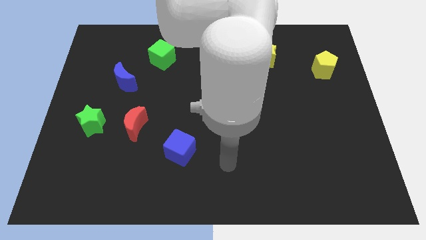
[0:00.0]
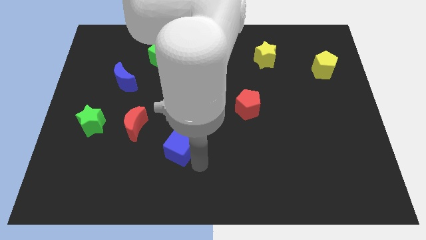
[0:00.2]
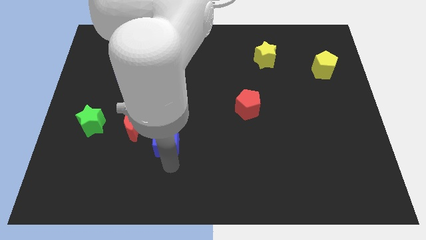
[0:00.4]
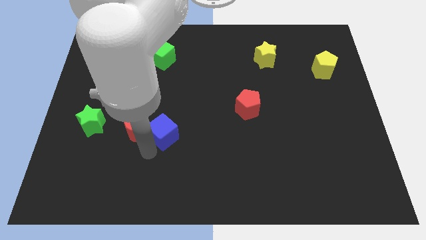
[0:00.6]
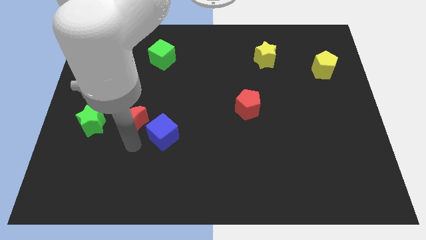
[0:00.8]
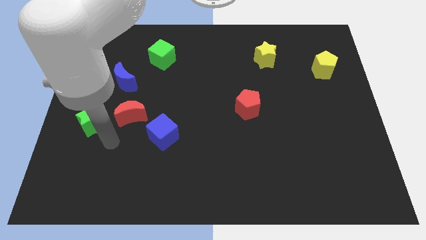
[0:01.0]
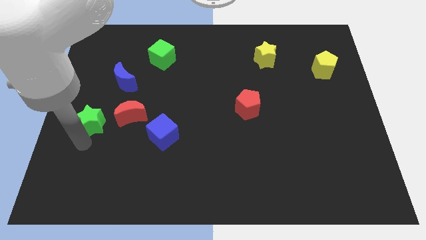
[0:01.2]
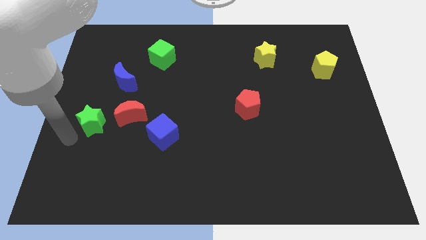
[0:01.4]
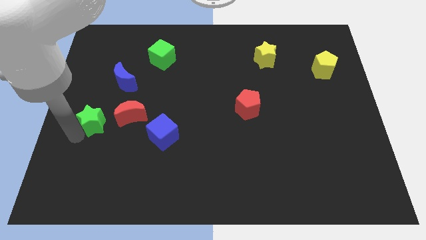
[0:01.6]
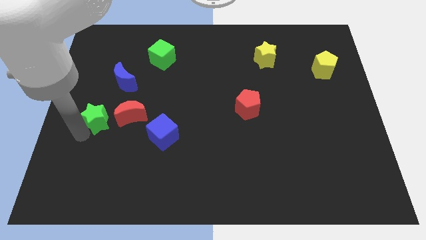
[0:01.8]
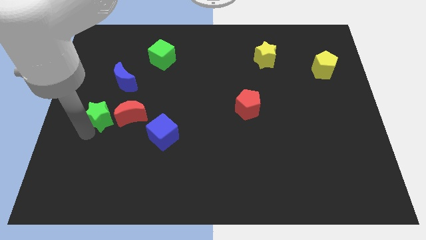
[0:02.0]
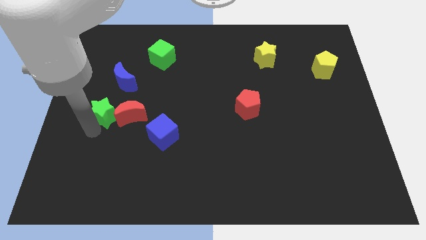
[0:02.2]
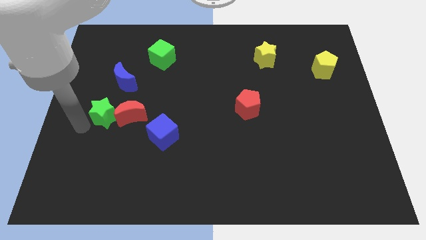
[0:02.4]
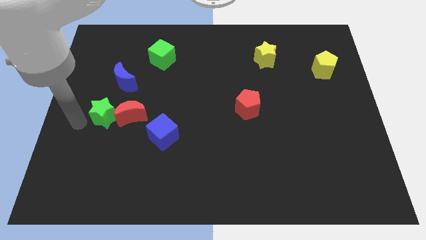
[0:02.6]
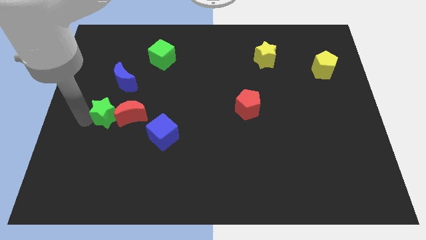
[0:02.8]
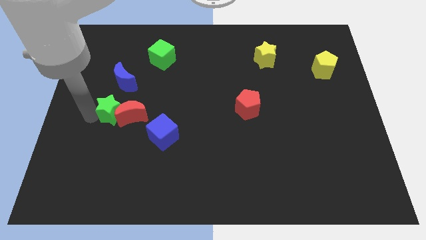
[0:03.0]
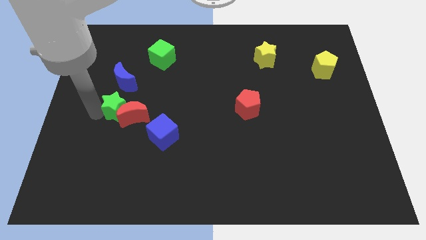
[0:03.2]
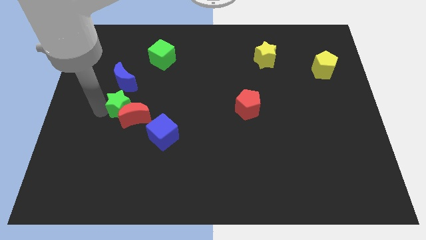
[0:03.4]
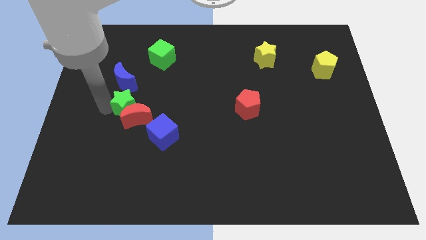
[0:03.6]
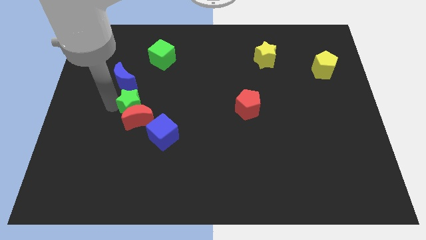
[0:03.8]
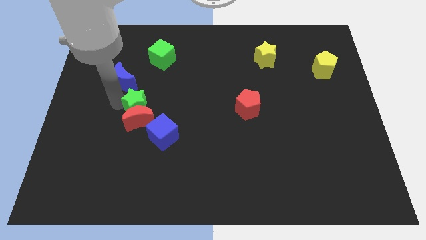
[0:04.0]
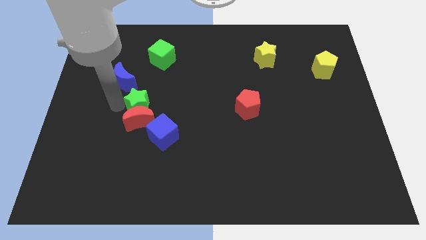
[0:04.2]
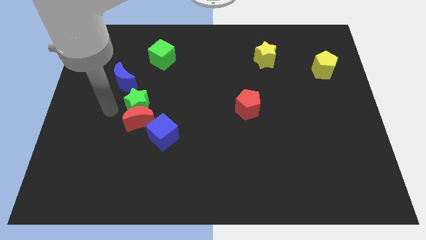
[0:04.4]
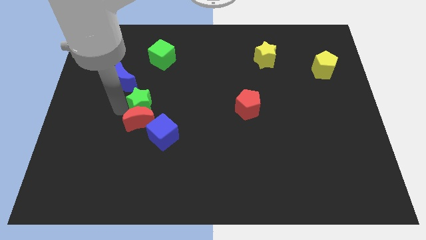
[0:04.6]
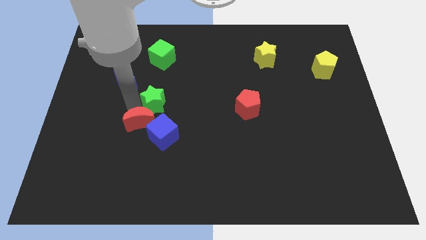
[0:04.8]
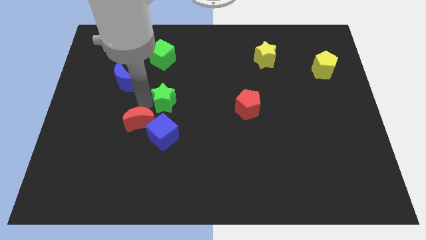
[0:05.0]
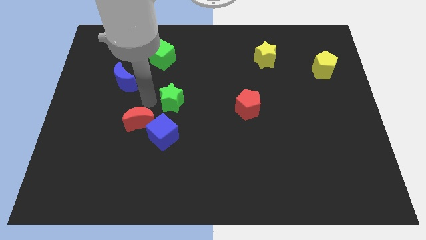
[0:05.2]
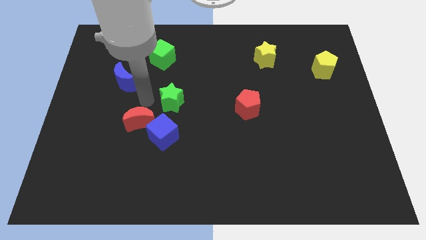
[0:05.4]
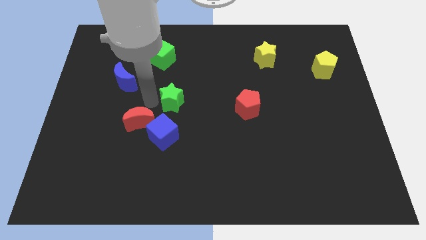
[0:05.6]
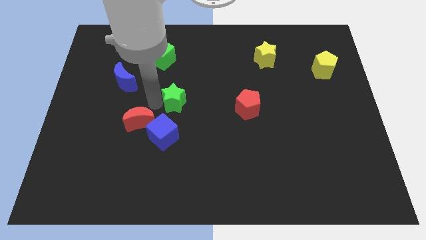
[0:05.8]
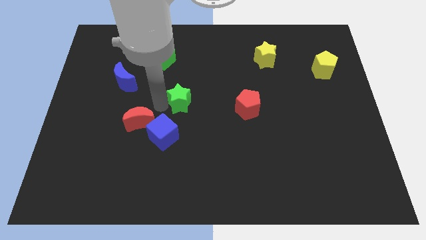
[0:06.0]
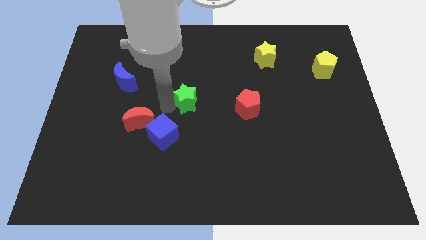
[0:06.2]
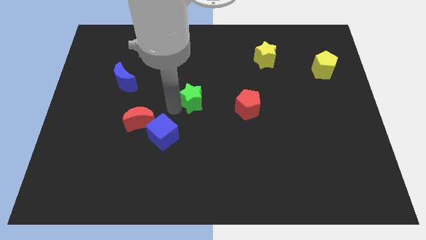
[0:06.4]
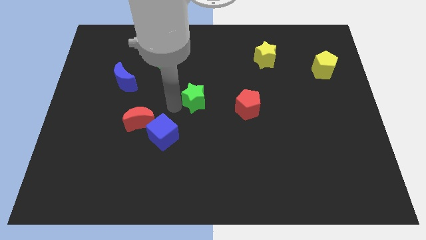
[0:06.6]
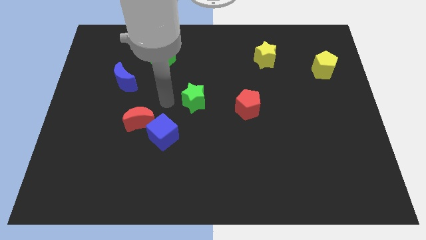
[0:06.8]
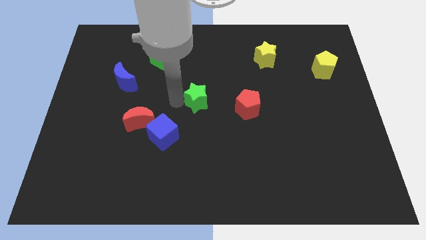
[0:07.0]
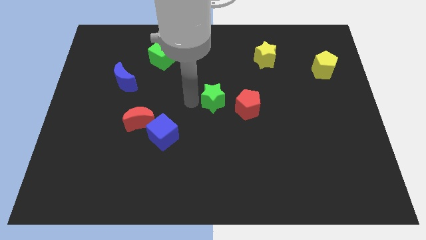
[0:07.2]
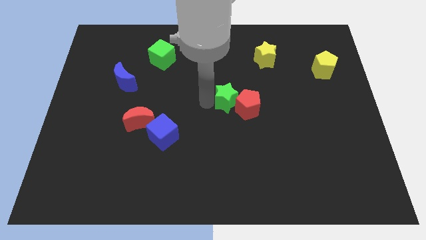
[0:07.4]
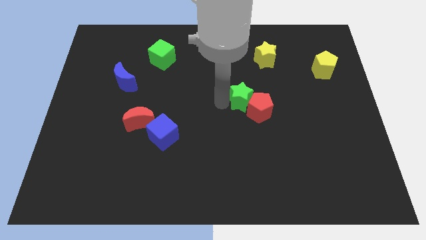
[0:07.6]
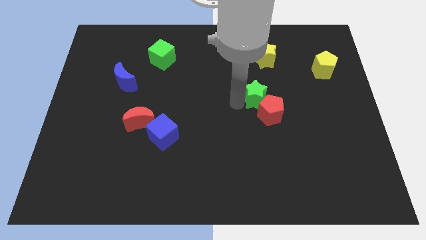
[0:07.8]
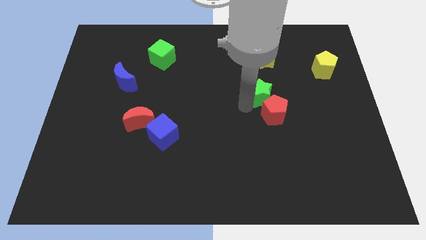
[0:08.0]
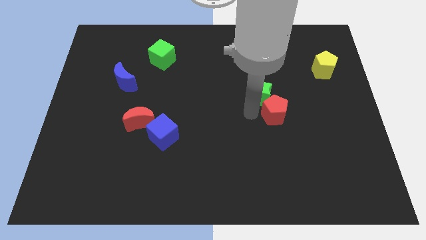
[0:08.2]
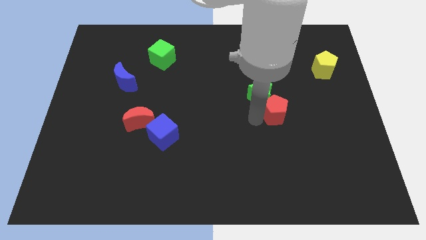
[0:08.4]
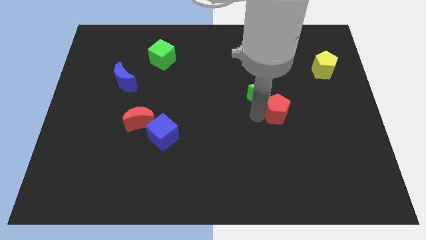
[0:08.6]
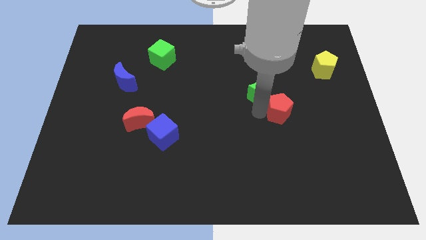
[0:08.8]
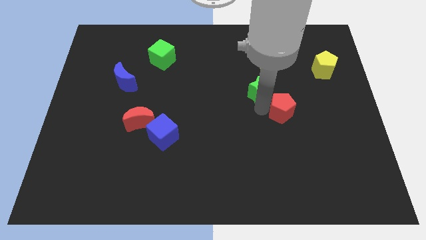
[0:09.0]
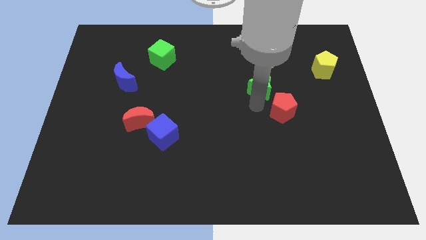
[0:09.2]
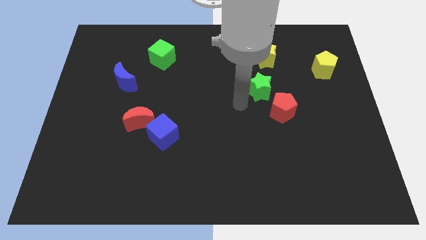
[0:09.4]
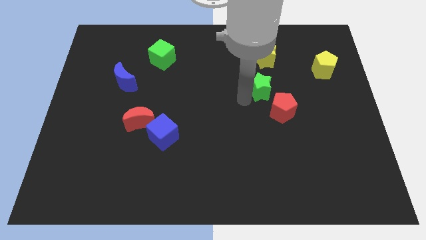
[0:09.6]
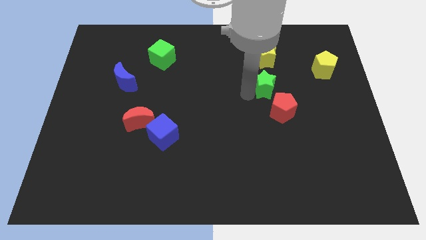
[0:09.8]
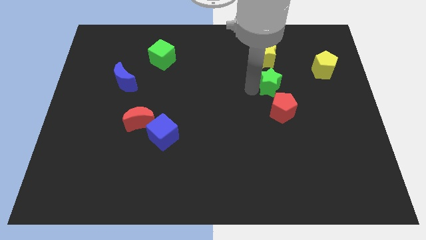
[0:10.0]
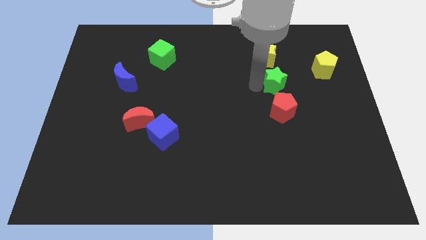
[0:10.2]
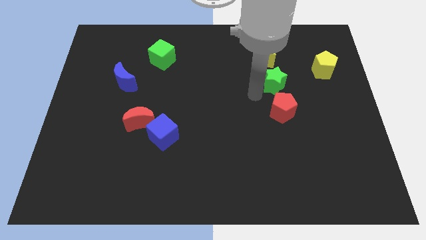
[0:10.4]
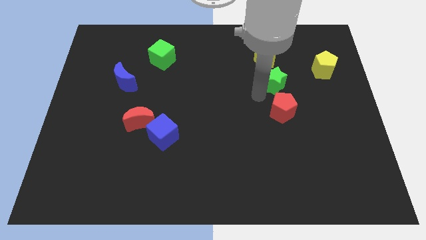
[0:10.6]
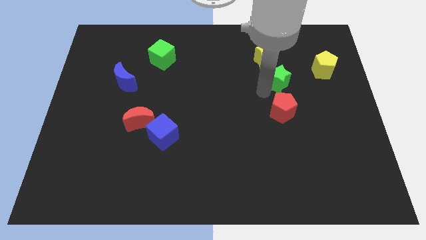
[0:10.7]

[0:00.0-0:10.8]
push the green star to the bottom right side of the yellow star

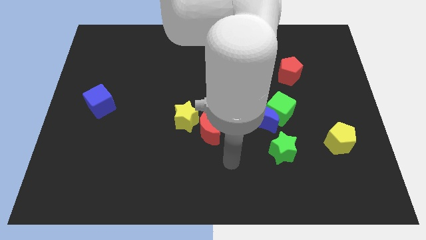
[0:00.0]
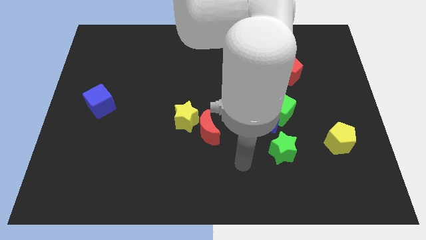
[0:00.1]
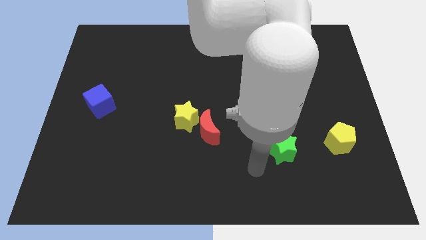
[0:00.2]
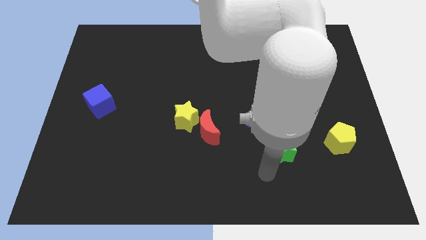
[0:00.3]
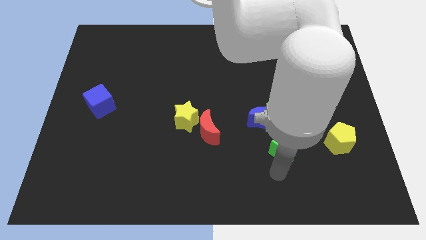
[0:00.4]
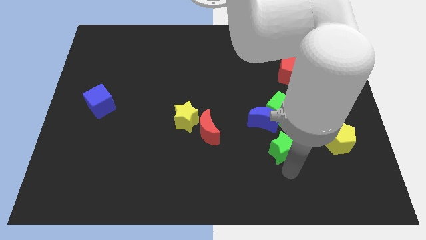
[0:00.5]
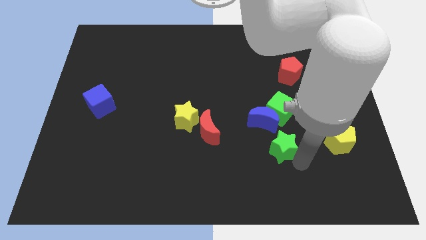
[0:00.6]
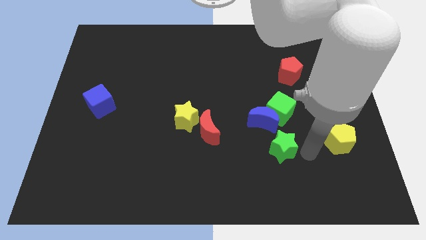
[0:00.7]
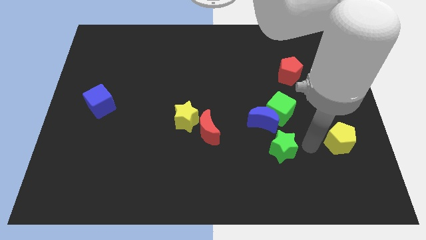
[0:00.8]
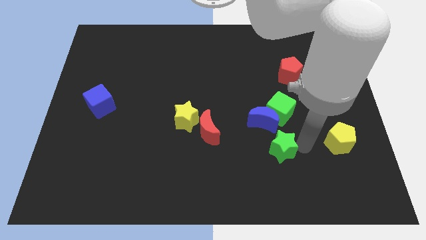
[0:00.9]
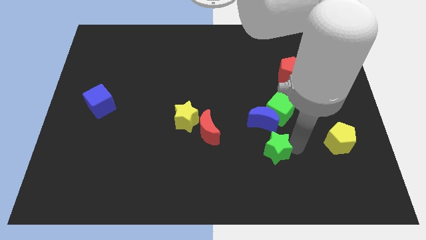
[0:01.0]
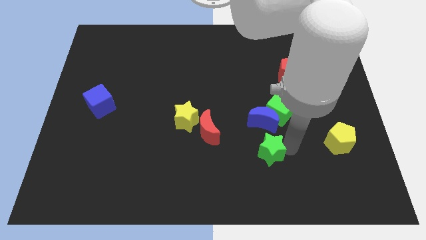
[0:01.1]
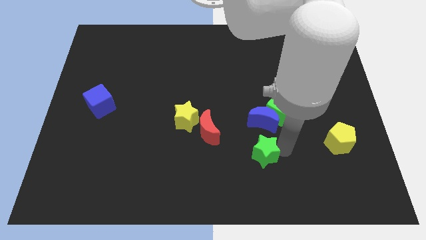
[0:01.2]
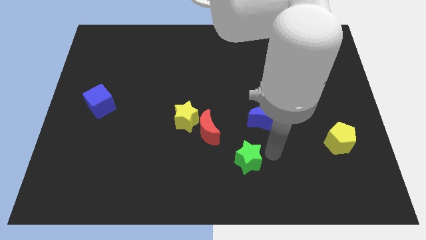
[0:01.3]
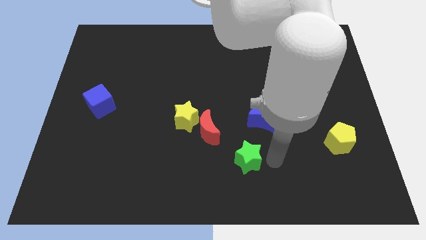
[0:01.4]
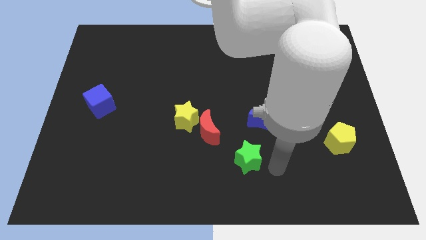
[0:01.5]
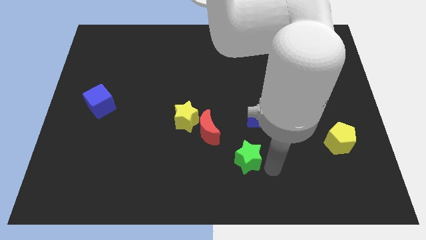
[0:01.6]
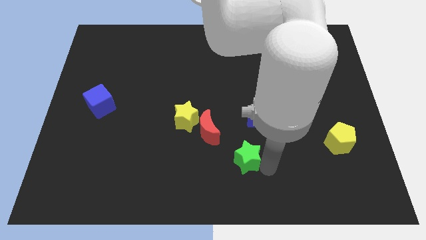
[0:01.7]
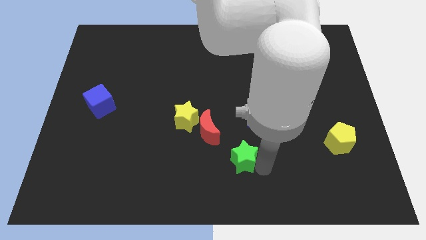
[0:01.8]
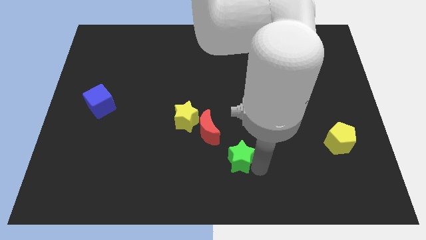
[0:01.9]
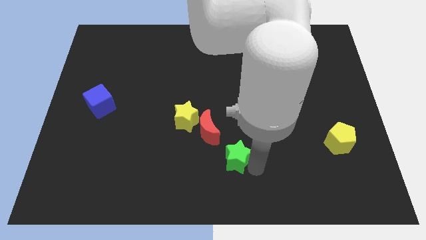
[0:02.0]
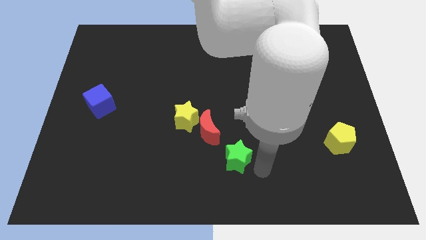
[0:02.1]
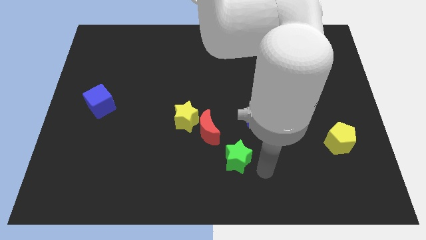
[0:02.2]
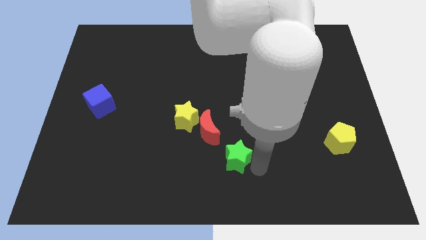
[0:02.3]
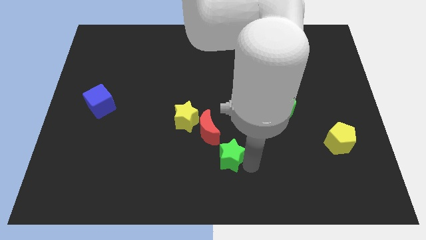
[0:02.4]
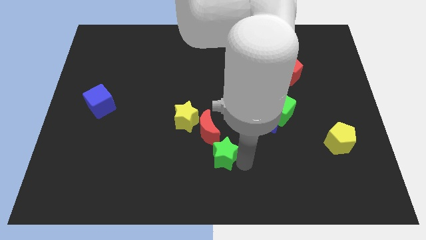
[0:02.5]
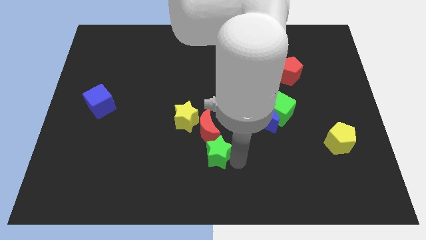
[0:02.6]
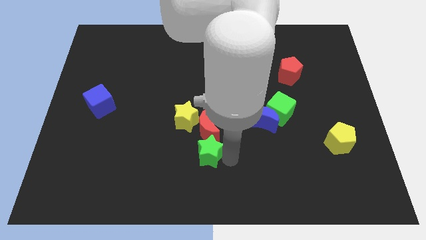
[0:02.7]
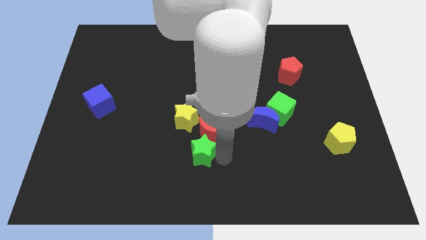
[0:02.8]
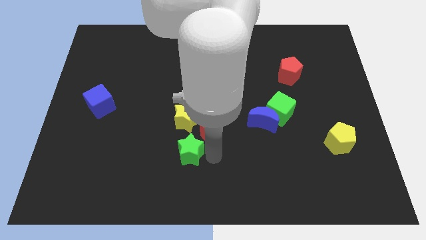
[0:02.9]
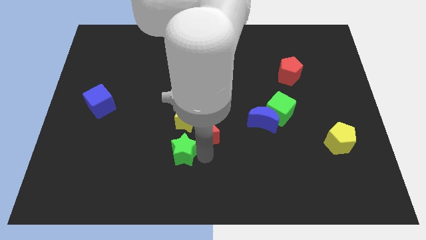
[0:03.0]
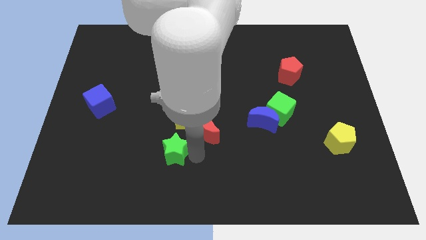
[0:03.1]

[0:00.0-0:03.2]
slide the green star diagonally down and to the left of the yellow star
